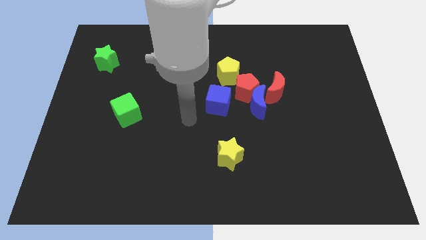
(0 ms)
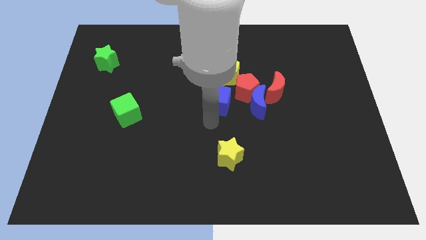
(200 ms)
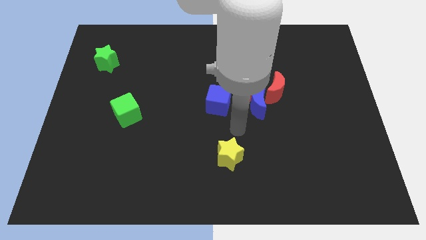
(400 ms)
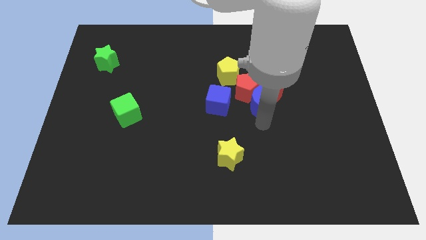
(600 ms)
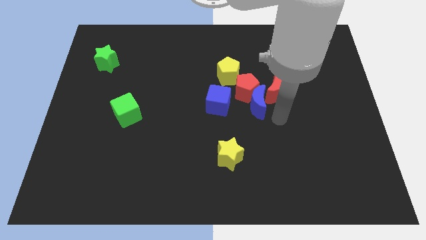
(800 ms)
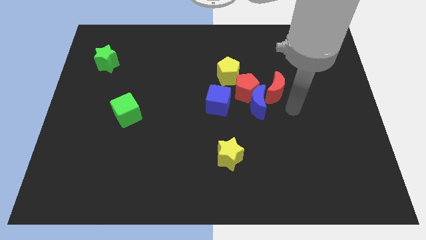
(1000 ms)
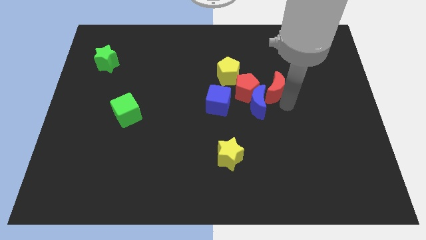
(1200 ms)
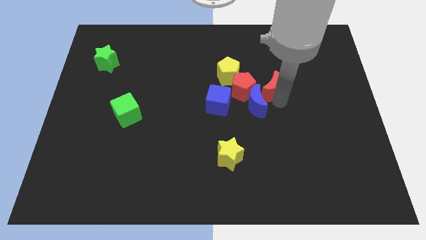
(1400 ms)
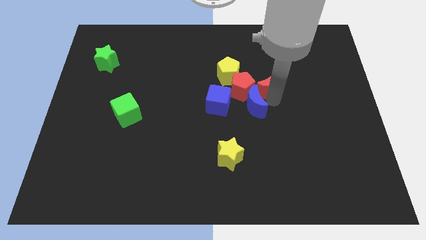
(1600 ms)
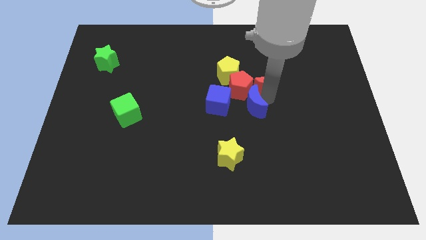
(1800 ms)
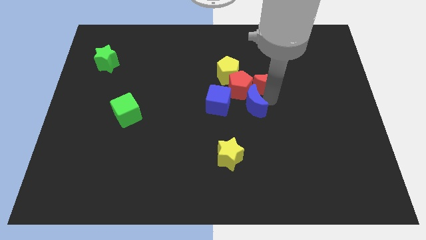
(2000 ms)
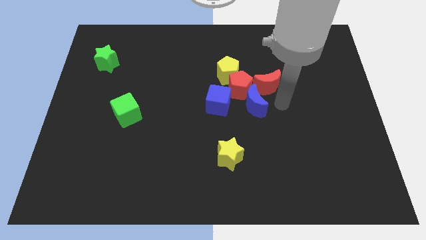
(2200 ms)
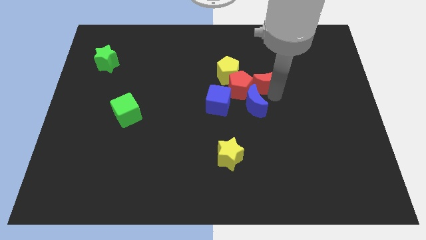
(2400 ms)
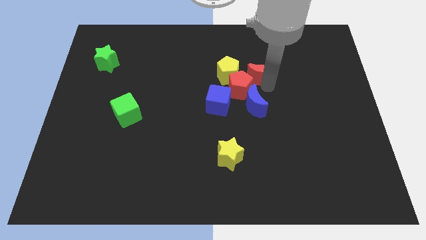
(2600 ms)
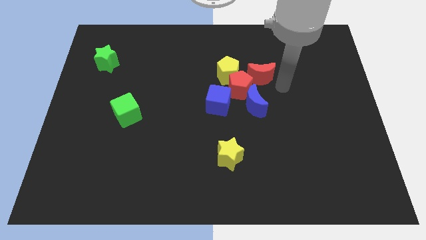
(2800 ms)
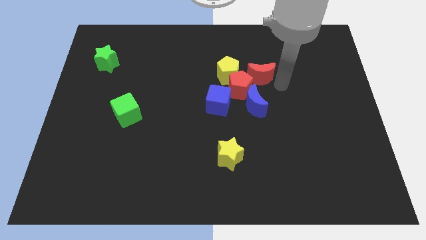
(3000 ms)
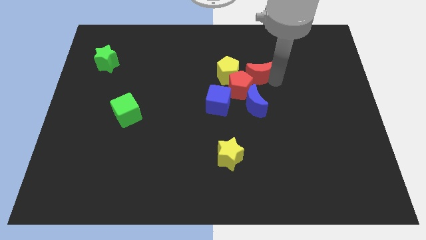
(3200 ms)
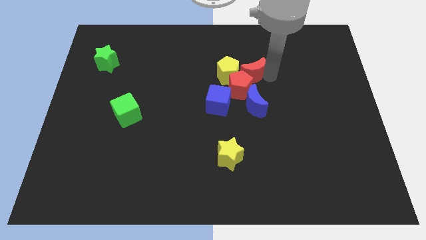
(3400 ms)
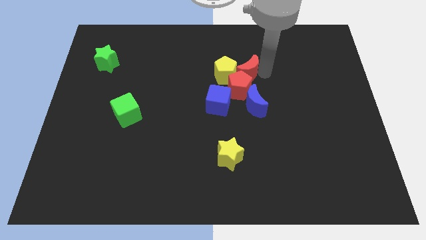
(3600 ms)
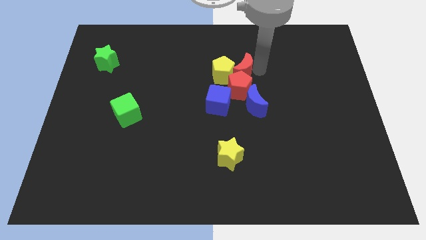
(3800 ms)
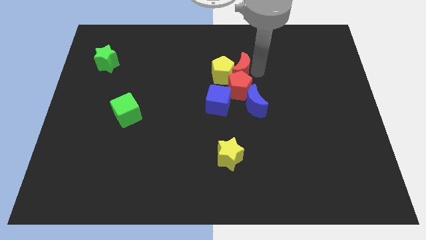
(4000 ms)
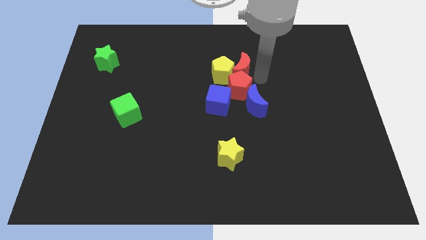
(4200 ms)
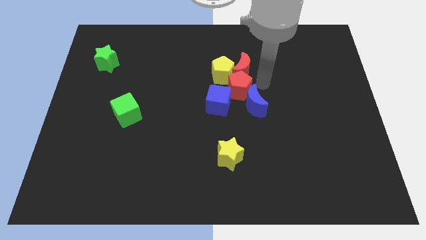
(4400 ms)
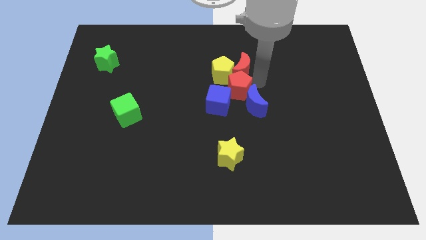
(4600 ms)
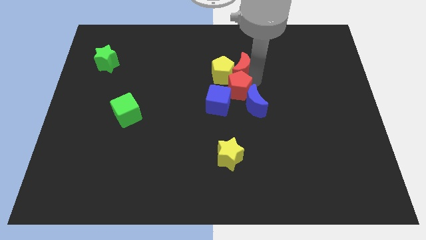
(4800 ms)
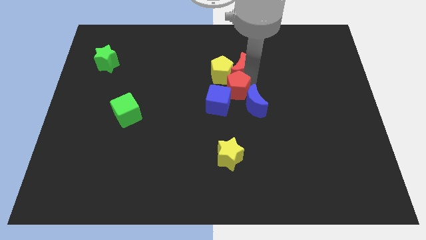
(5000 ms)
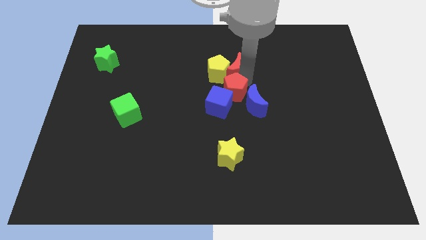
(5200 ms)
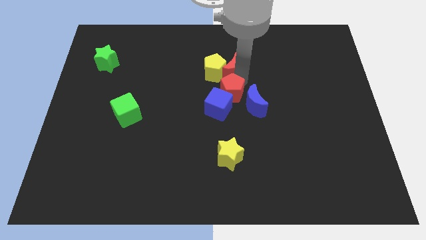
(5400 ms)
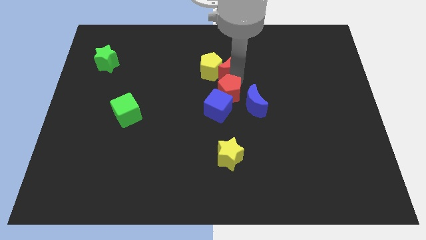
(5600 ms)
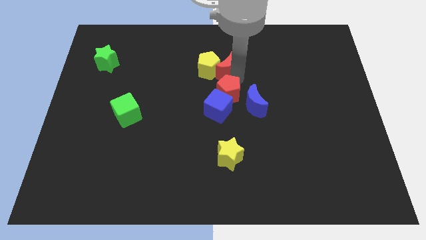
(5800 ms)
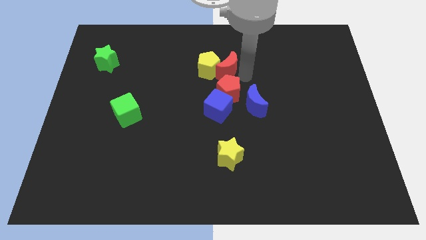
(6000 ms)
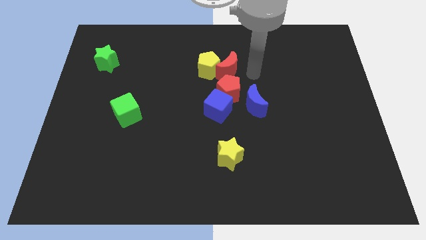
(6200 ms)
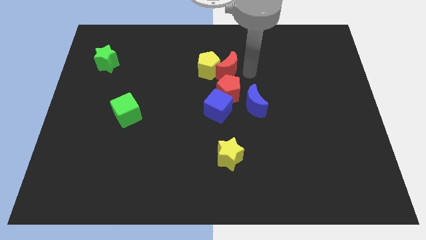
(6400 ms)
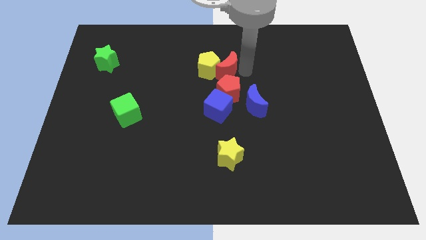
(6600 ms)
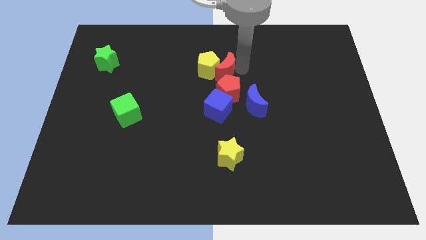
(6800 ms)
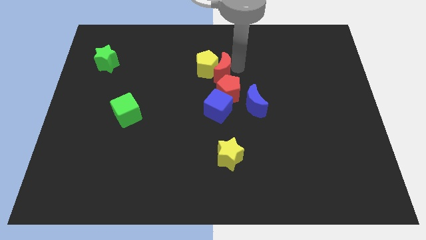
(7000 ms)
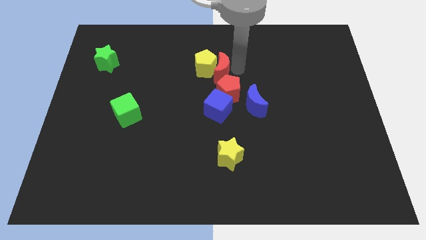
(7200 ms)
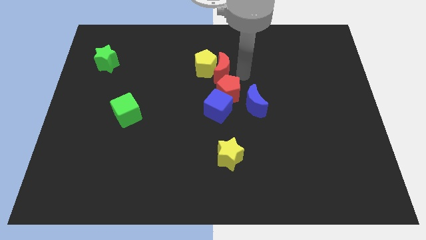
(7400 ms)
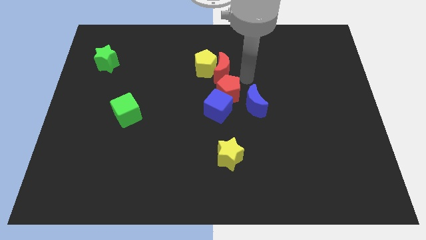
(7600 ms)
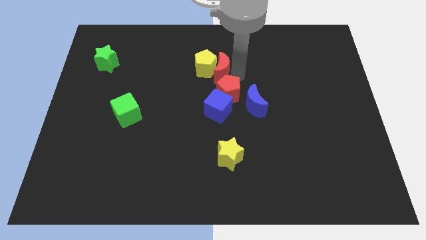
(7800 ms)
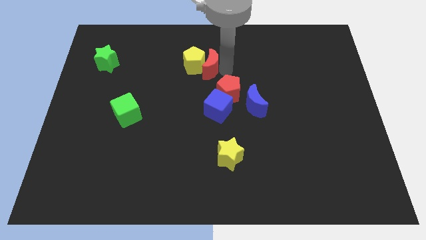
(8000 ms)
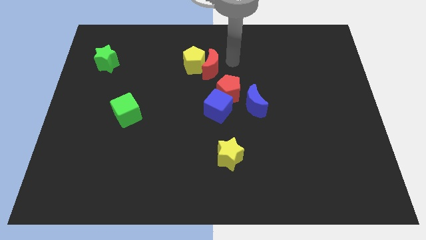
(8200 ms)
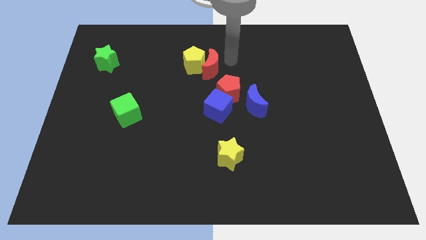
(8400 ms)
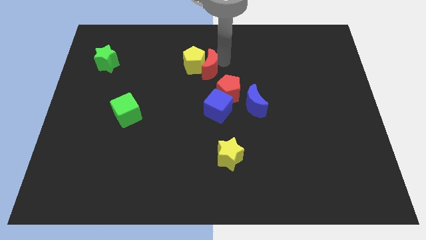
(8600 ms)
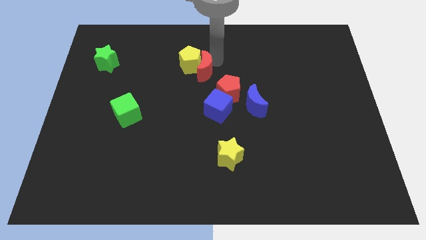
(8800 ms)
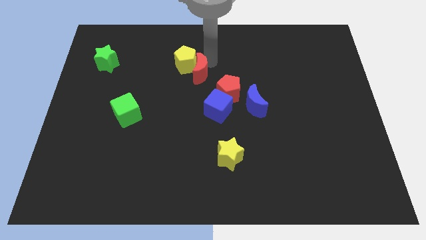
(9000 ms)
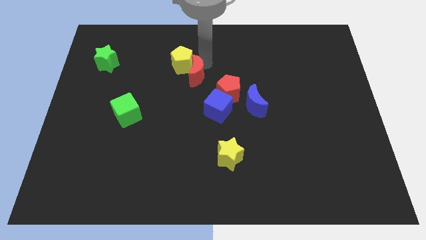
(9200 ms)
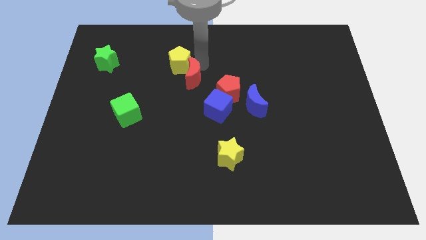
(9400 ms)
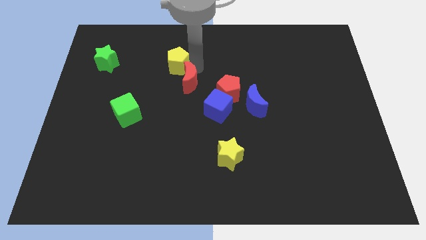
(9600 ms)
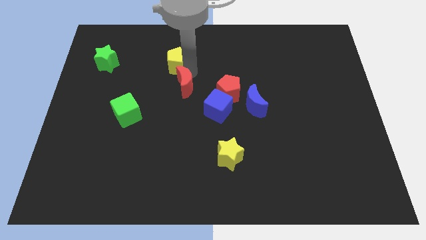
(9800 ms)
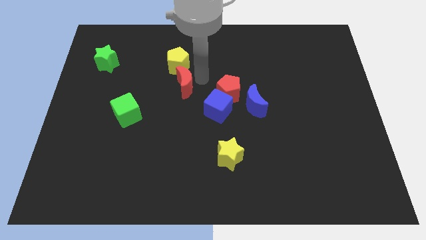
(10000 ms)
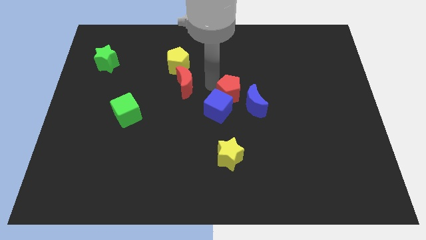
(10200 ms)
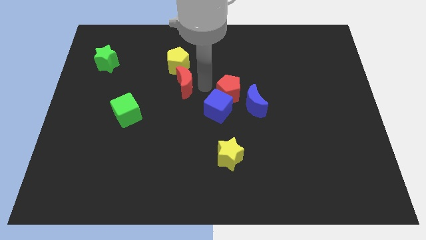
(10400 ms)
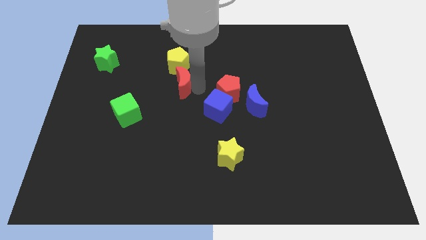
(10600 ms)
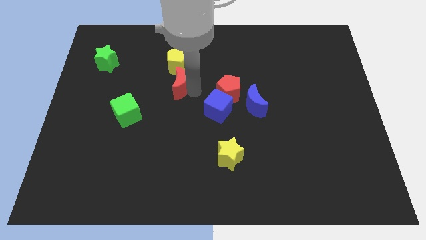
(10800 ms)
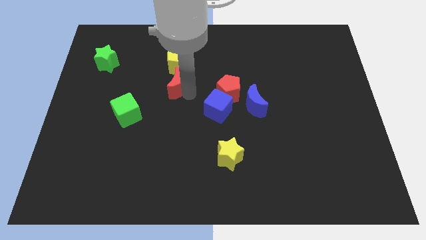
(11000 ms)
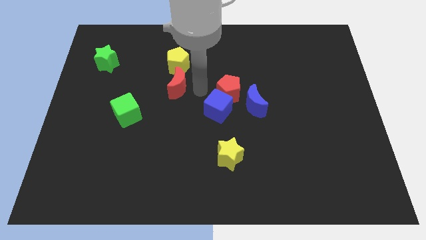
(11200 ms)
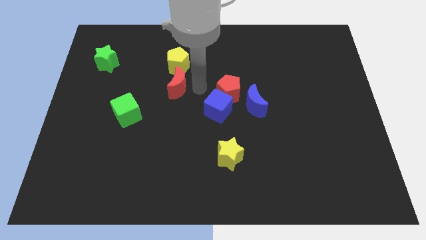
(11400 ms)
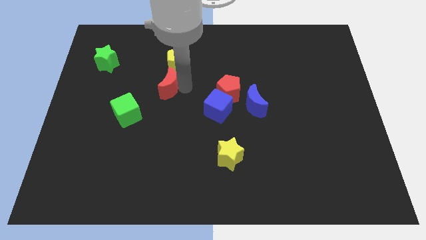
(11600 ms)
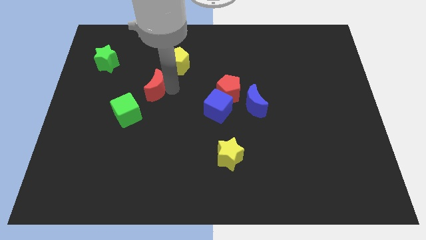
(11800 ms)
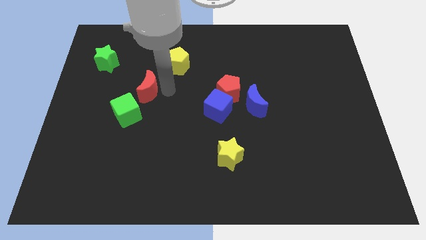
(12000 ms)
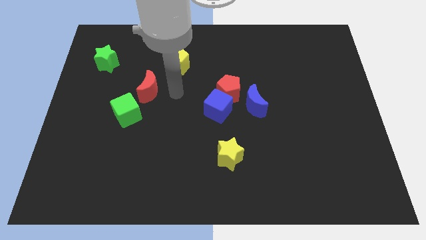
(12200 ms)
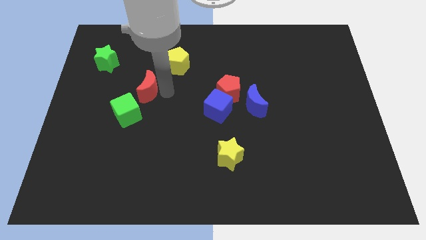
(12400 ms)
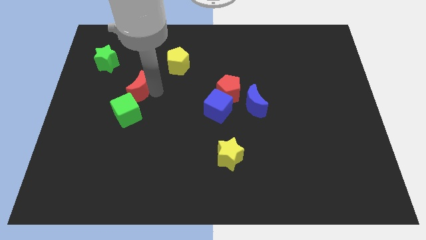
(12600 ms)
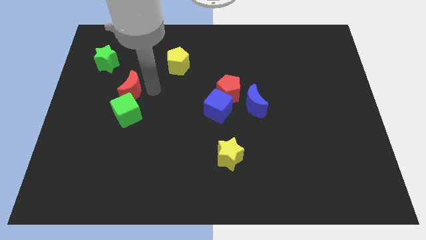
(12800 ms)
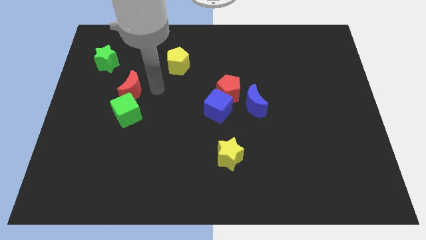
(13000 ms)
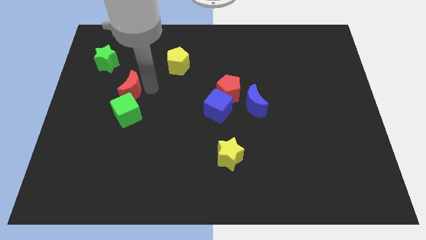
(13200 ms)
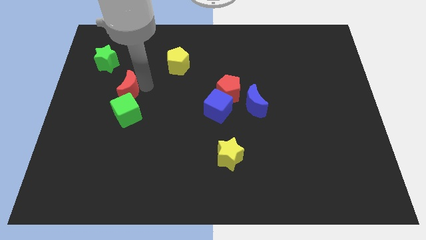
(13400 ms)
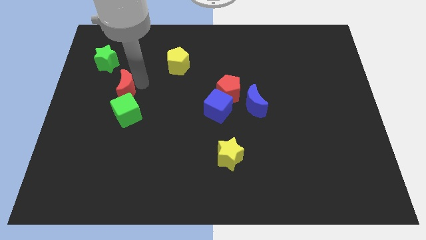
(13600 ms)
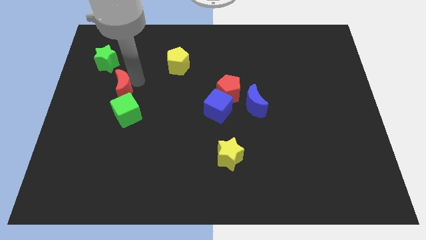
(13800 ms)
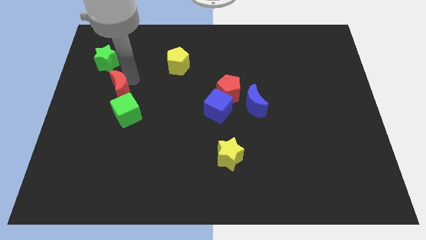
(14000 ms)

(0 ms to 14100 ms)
push the red moon to the bottom side of the green star

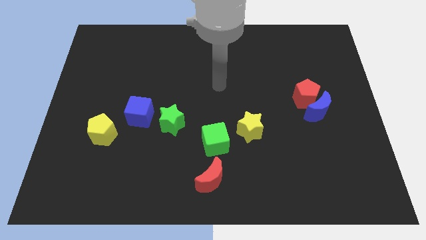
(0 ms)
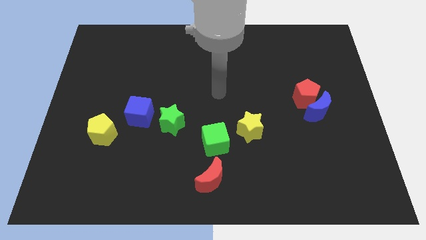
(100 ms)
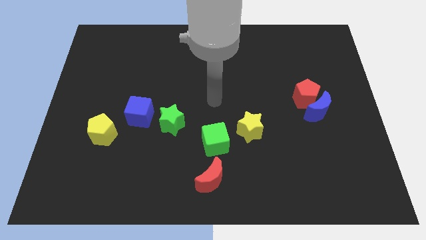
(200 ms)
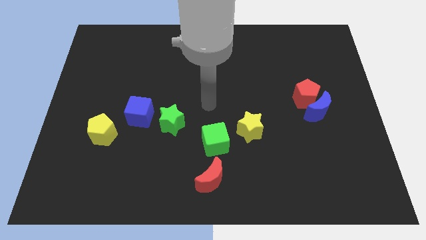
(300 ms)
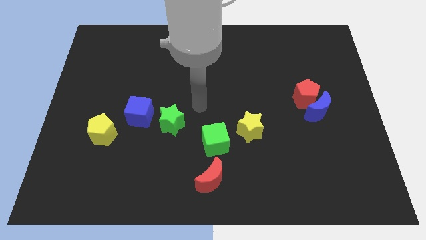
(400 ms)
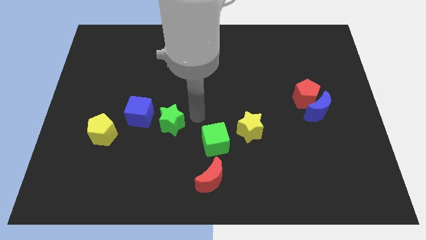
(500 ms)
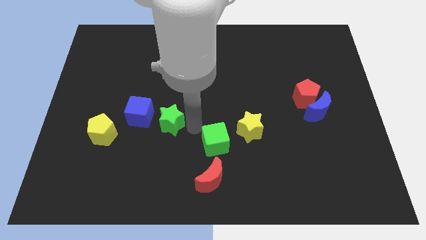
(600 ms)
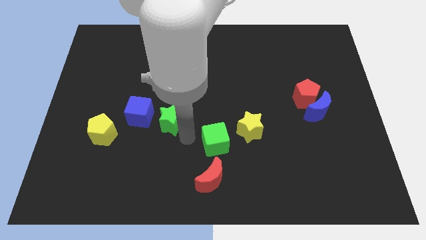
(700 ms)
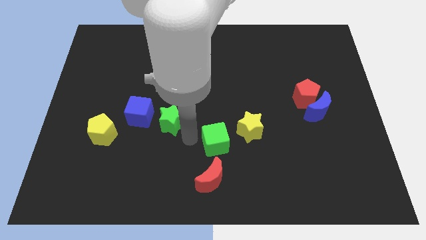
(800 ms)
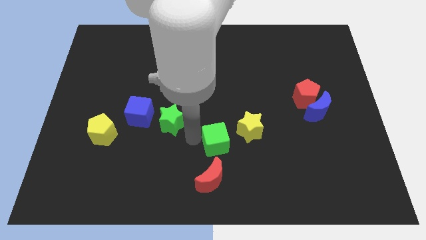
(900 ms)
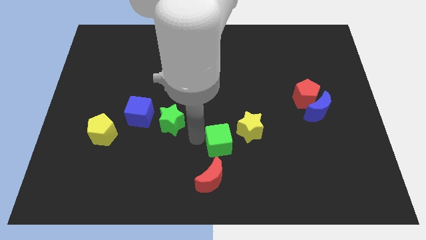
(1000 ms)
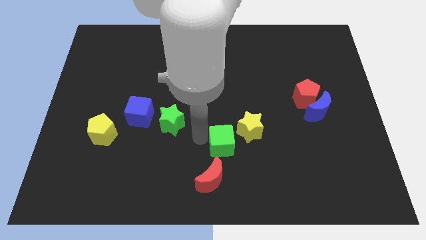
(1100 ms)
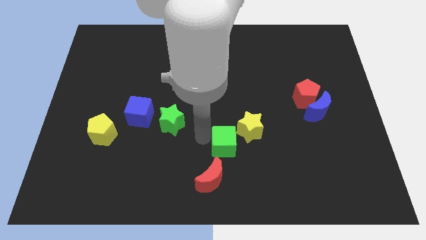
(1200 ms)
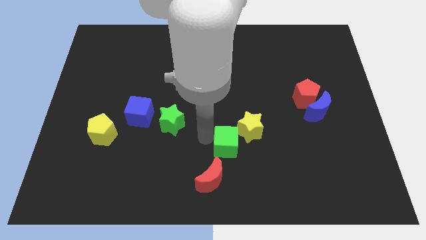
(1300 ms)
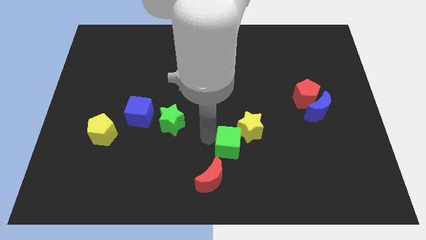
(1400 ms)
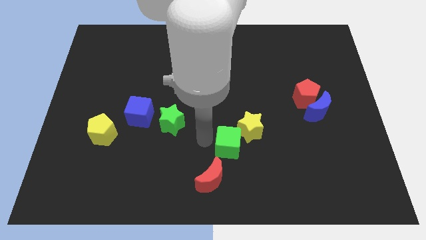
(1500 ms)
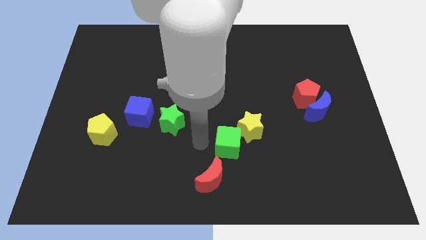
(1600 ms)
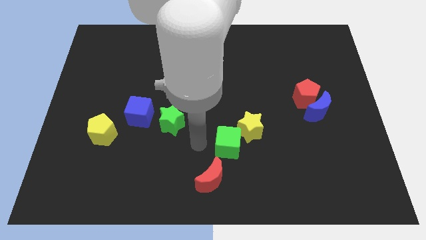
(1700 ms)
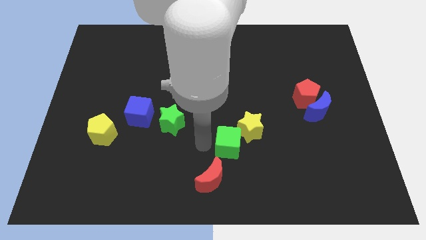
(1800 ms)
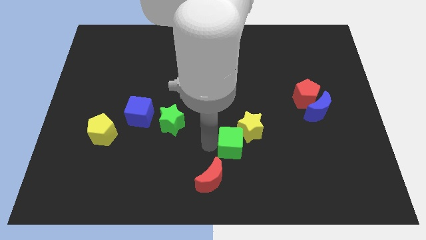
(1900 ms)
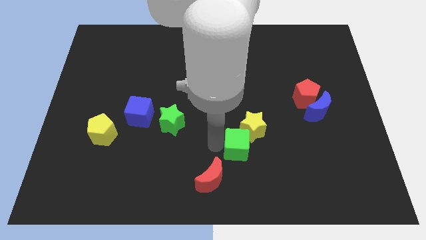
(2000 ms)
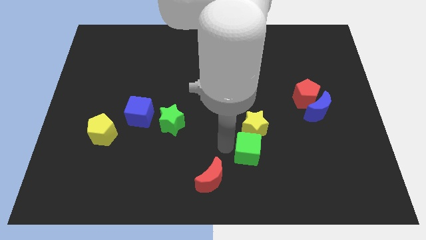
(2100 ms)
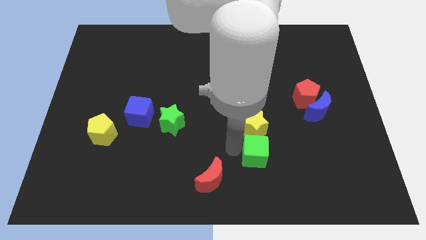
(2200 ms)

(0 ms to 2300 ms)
move the green cube to the bottom right side of the yellow star
